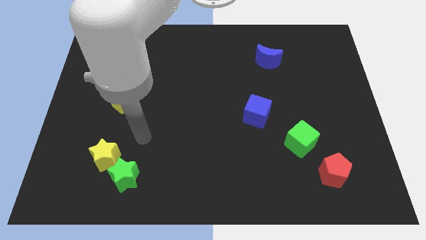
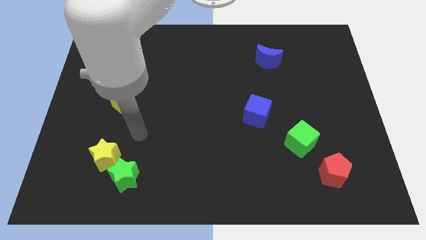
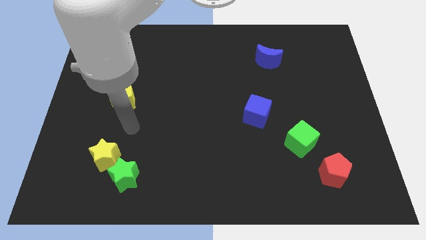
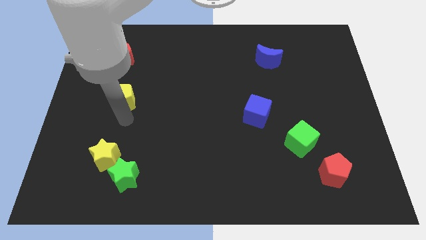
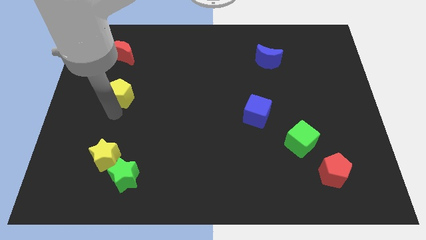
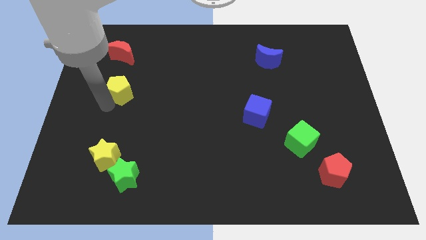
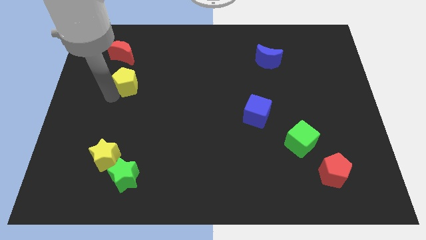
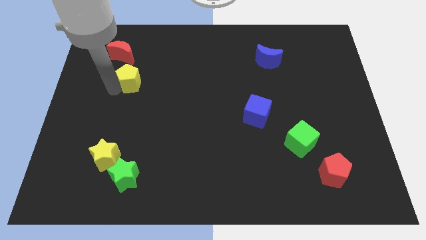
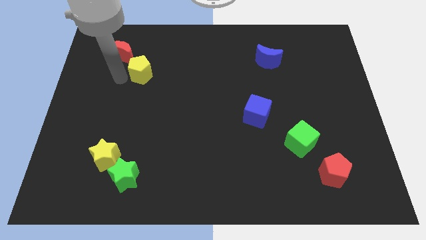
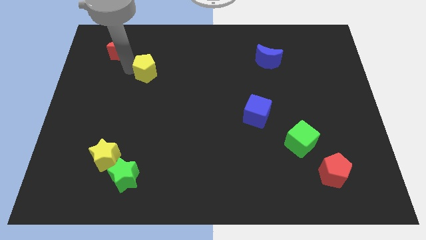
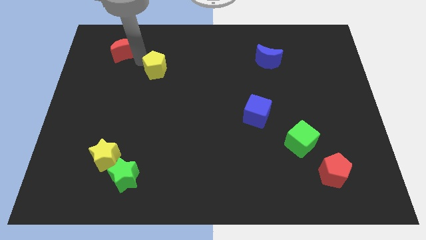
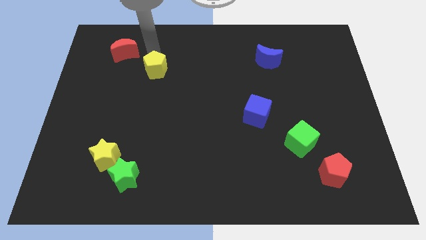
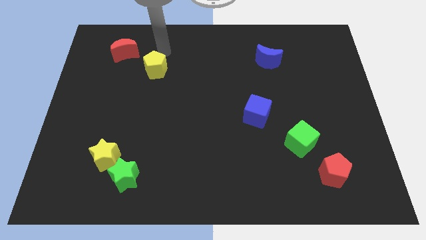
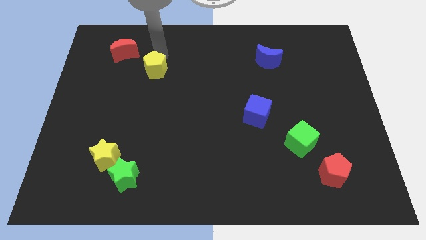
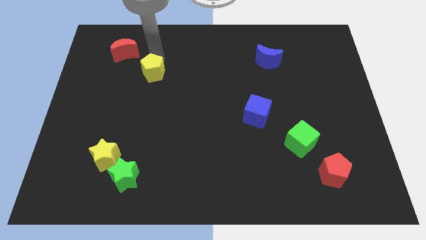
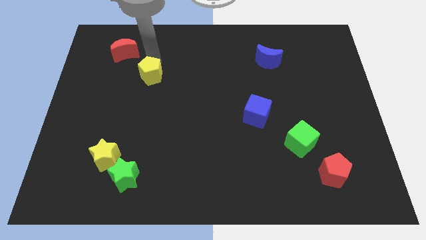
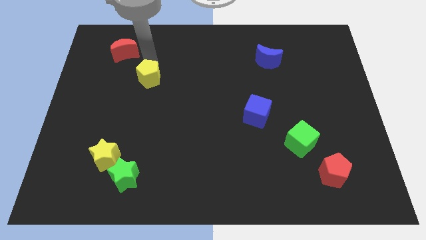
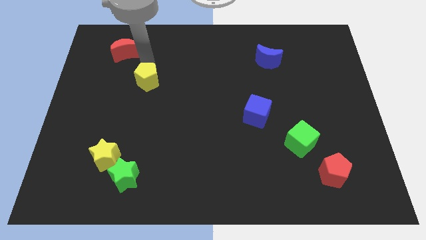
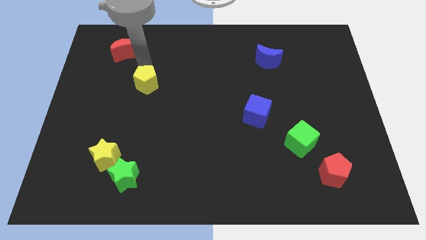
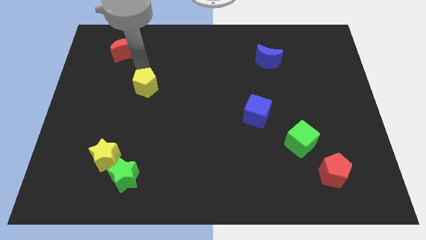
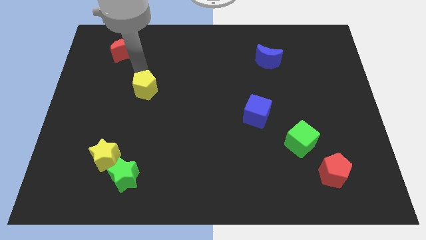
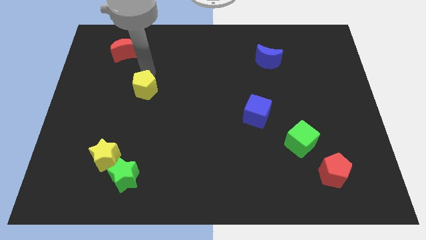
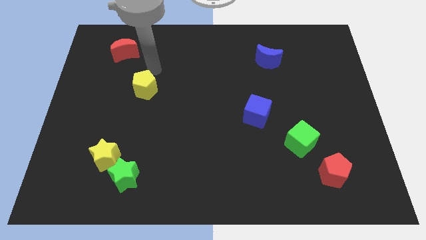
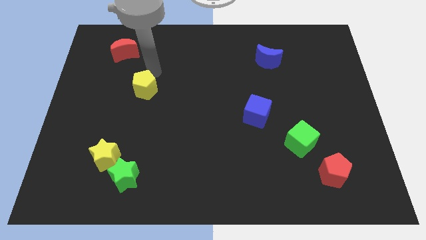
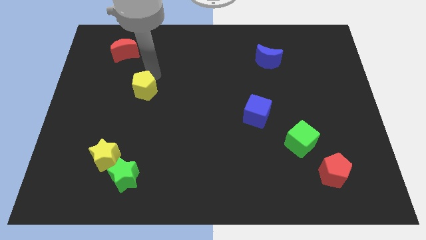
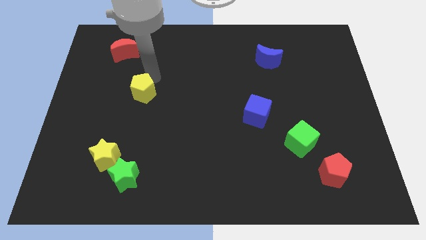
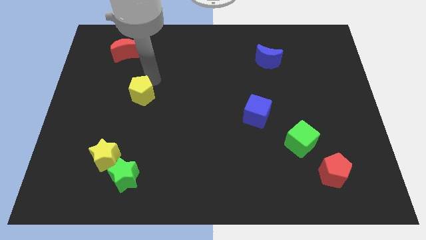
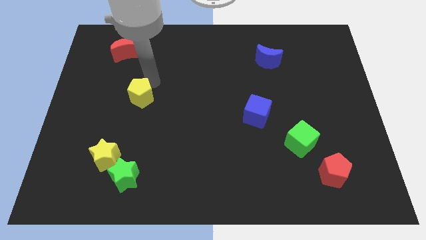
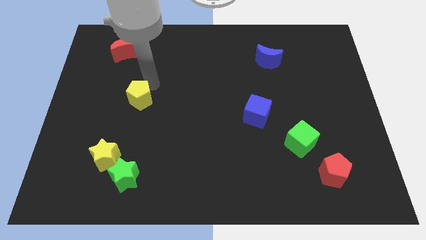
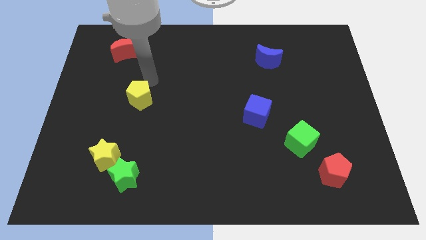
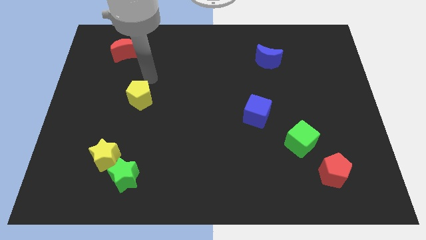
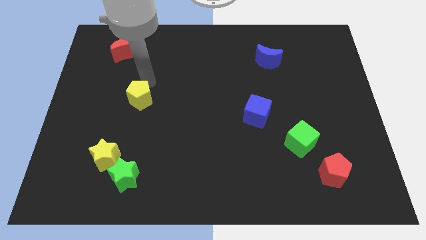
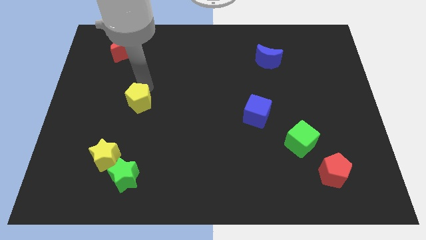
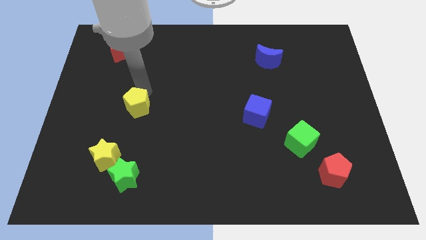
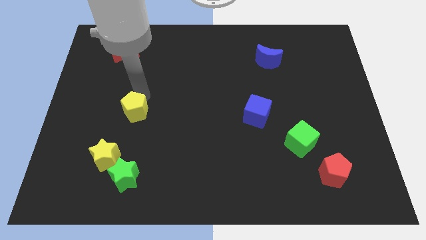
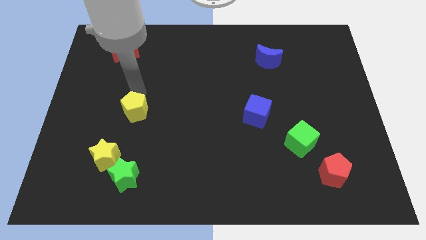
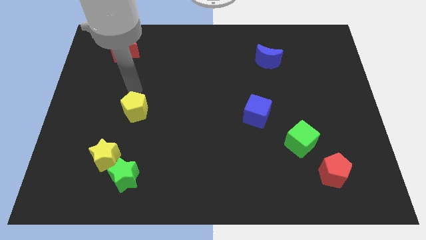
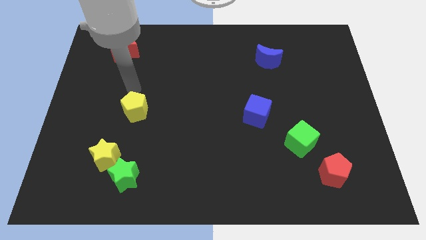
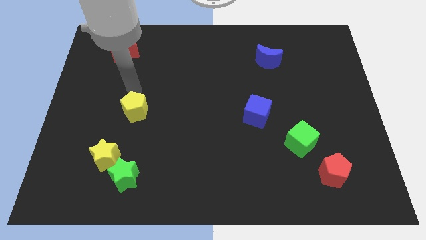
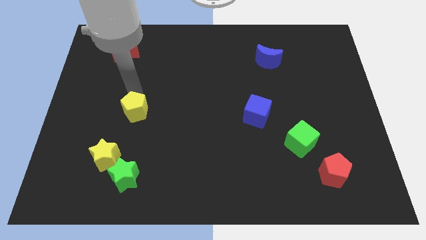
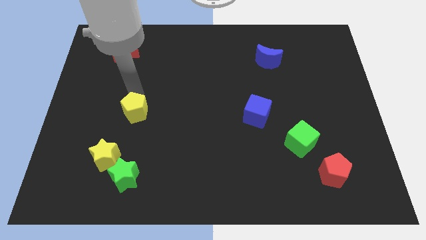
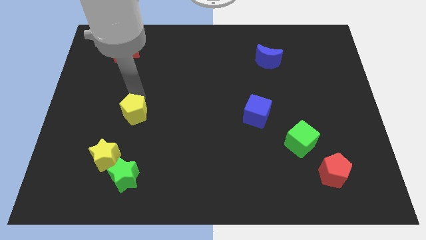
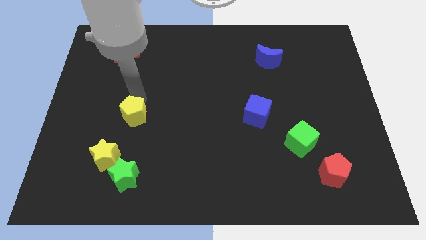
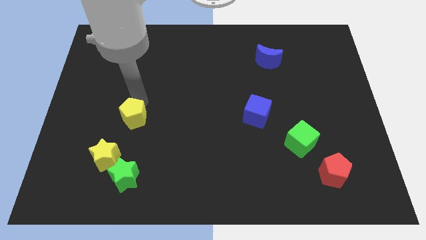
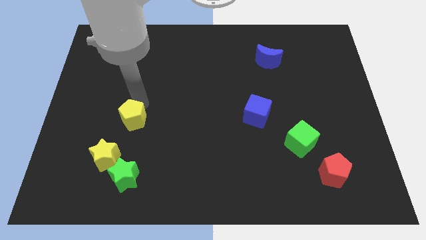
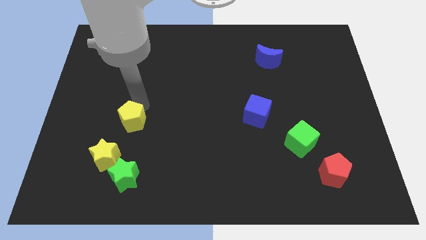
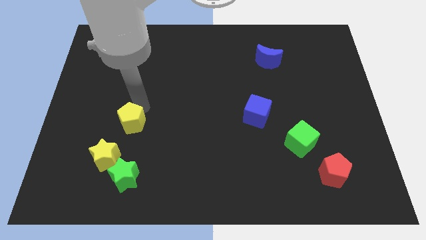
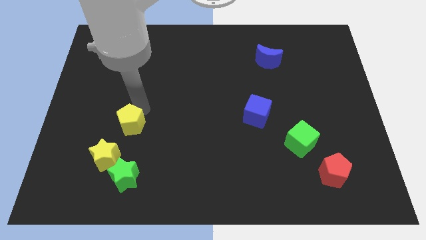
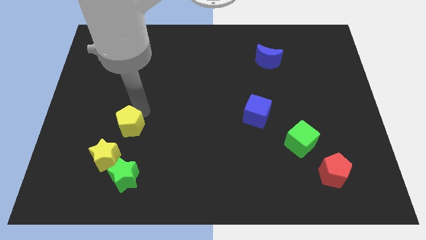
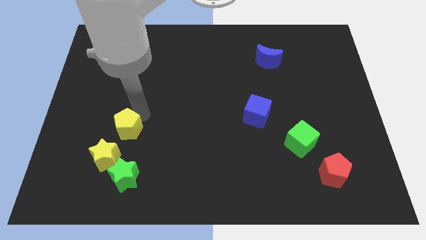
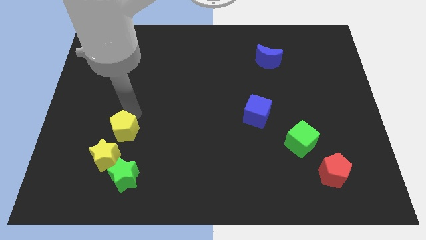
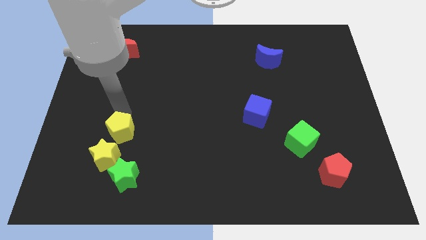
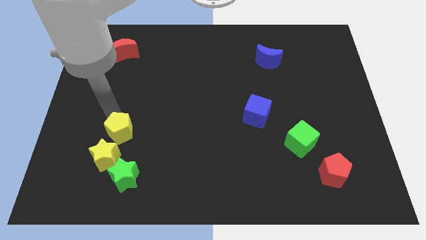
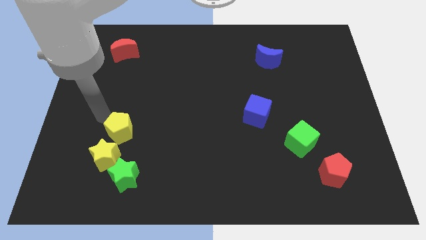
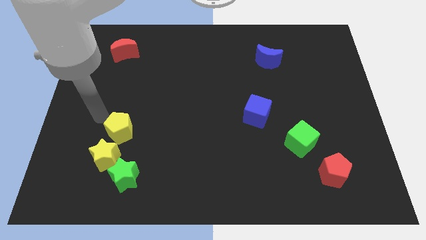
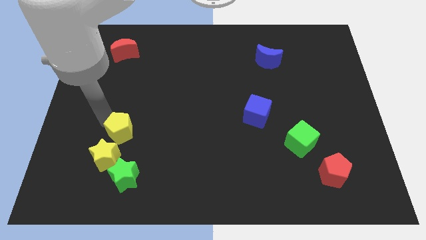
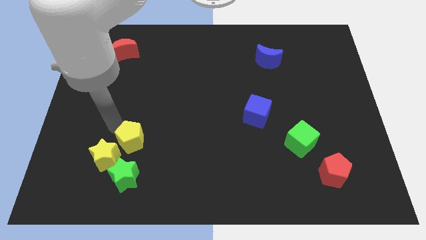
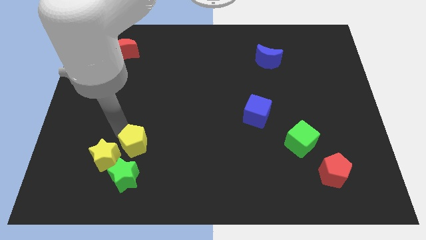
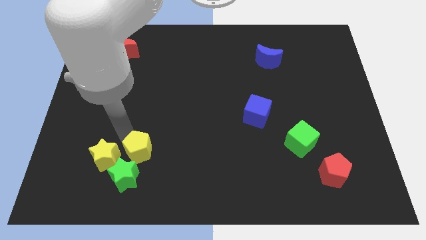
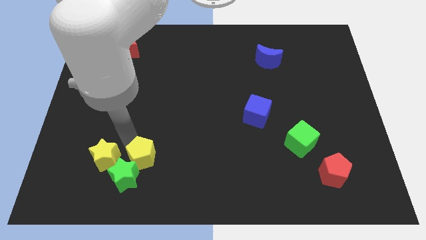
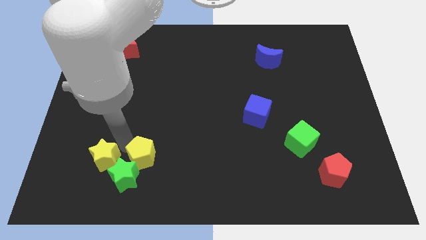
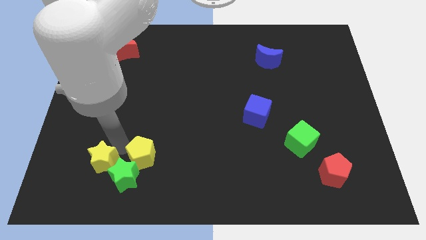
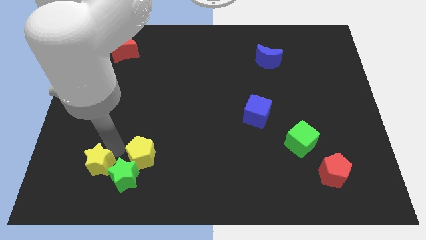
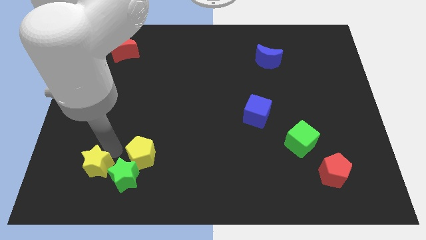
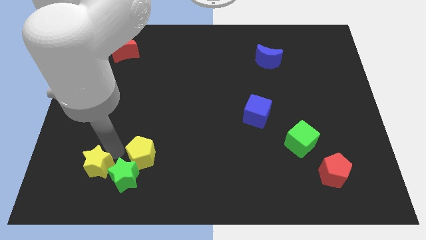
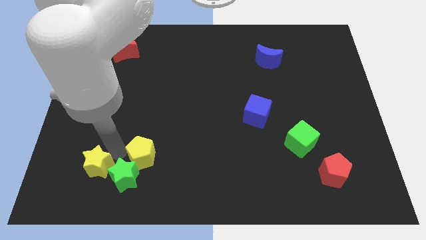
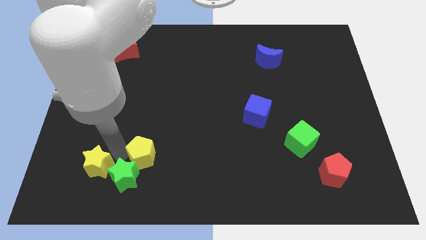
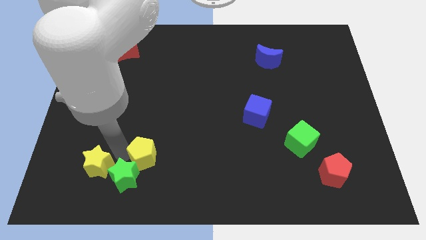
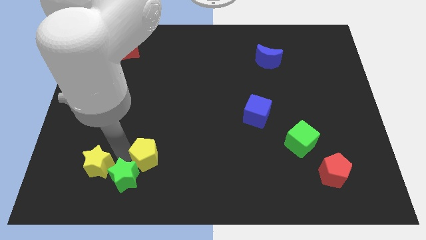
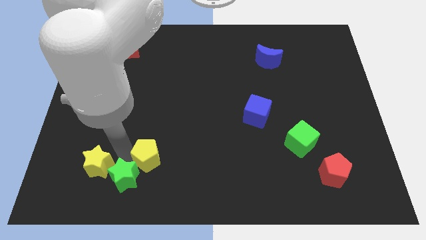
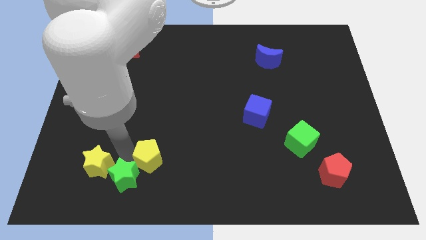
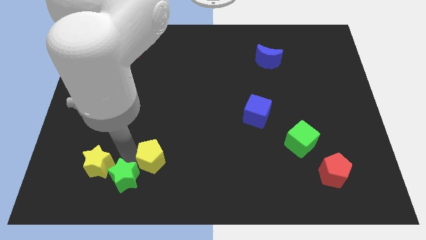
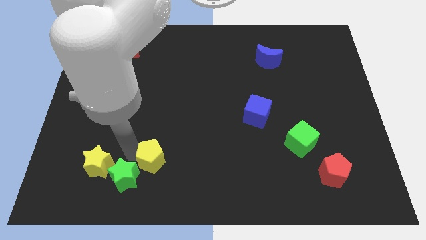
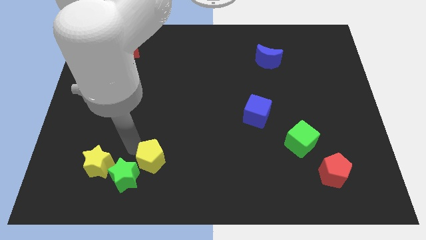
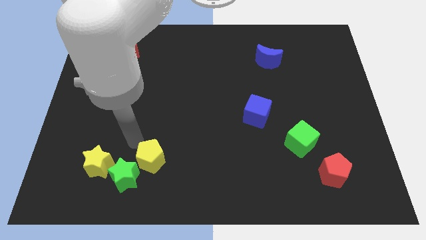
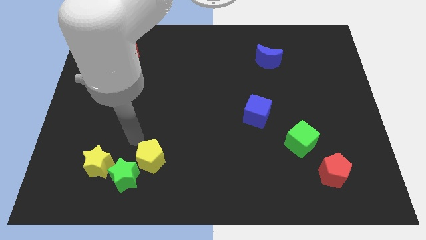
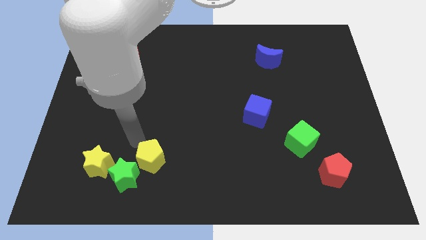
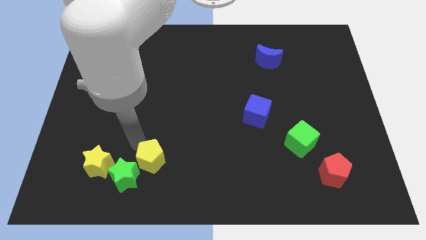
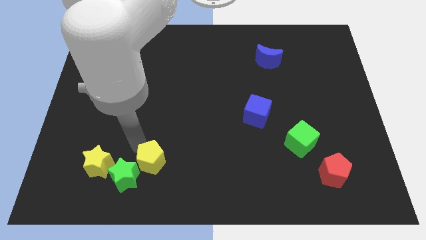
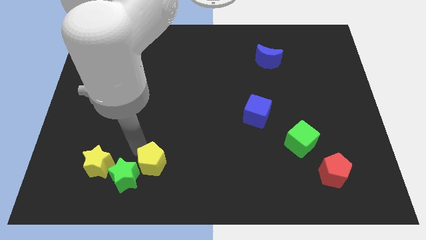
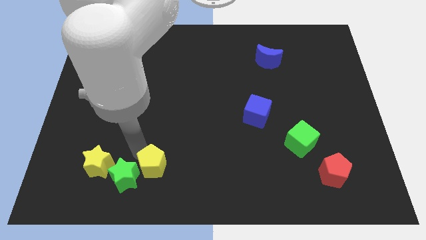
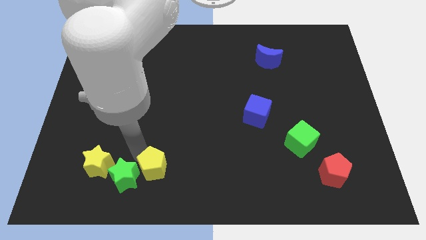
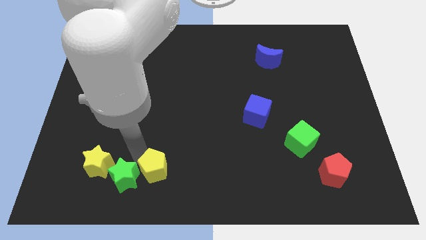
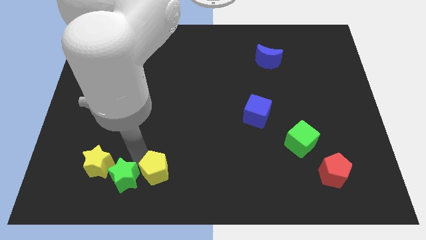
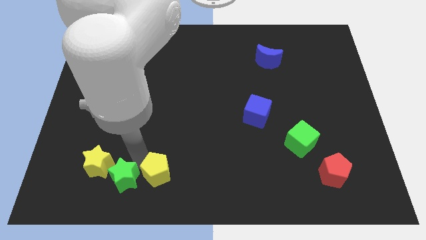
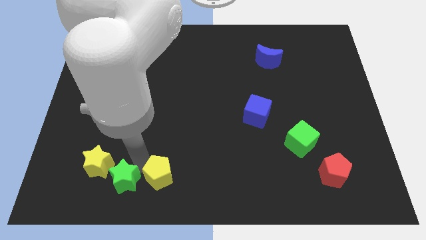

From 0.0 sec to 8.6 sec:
push the yellow pentagon to the bottom side
